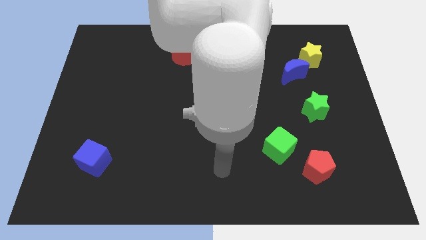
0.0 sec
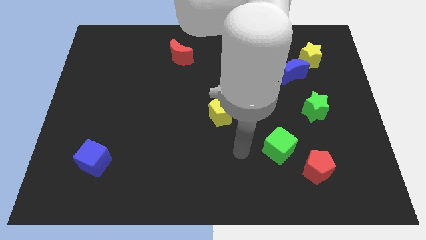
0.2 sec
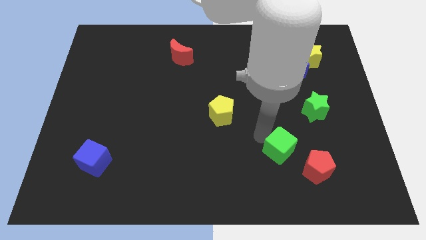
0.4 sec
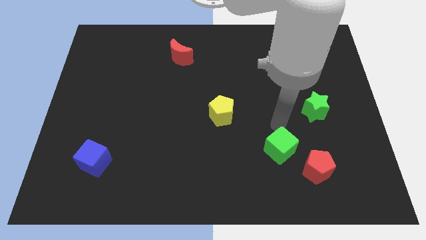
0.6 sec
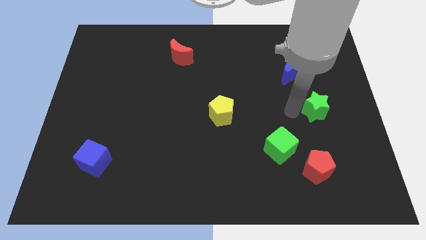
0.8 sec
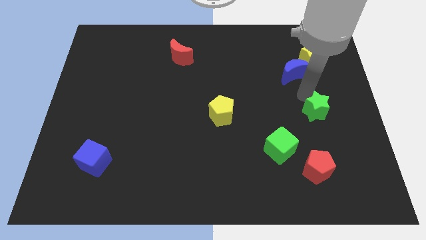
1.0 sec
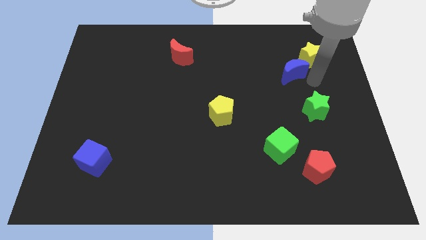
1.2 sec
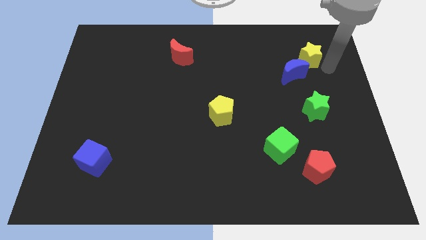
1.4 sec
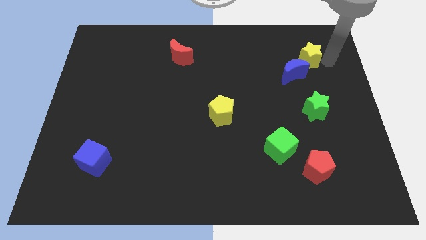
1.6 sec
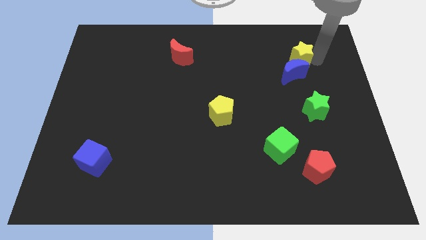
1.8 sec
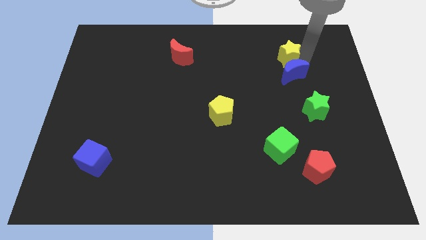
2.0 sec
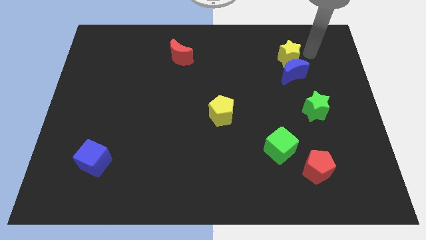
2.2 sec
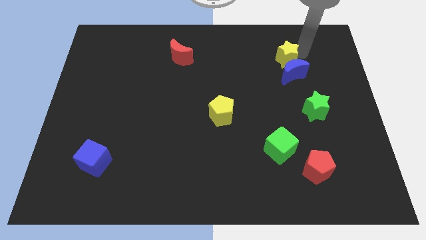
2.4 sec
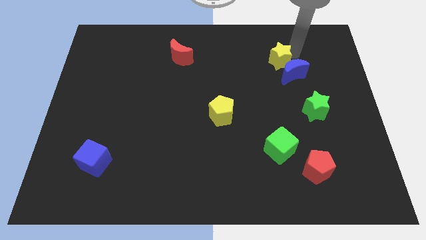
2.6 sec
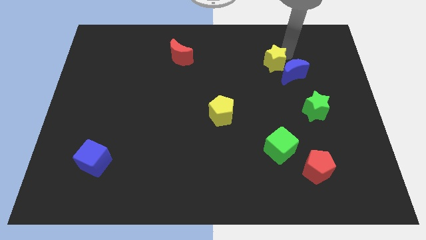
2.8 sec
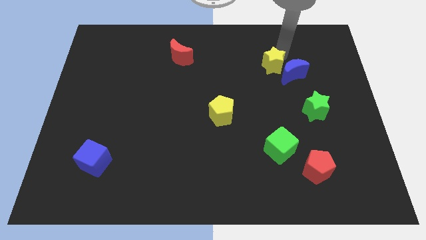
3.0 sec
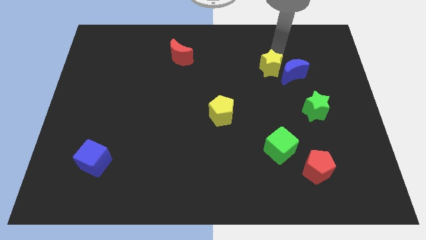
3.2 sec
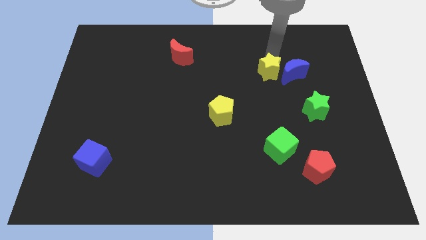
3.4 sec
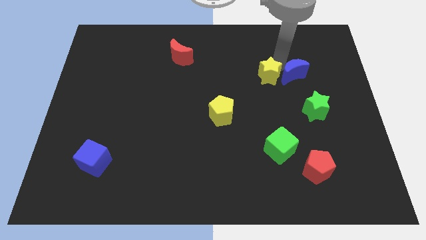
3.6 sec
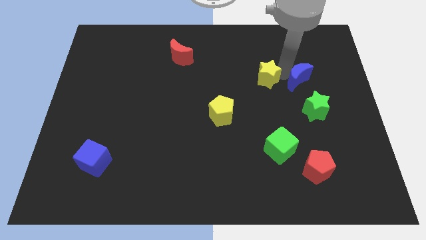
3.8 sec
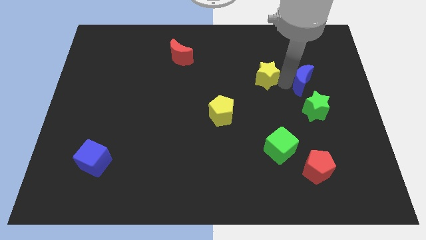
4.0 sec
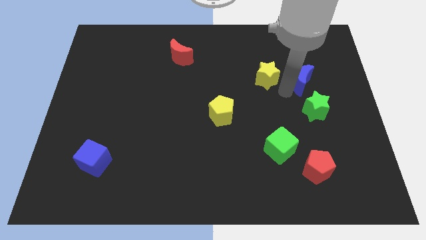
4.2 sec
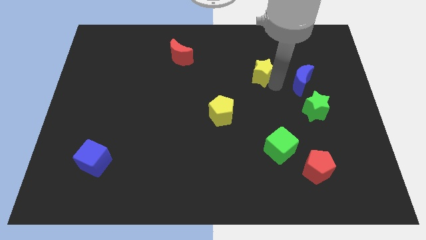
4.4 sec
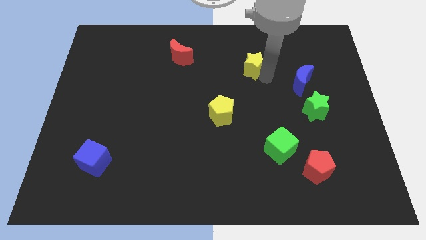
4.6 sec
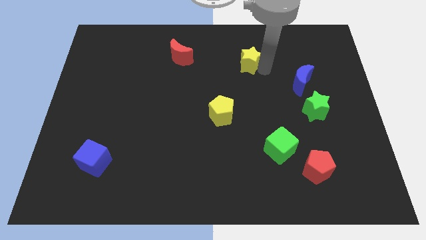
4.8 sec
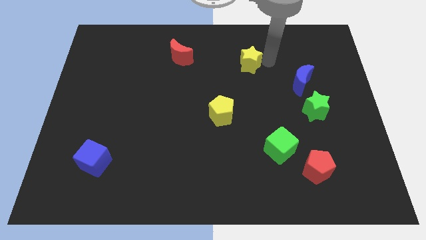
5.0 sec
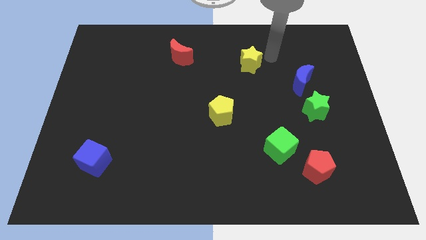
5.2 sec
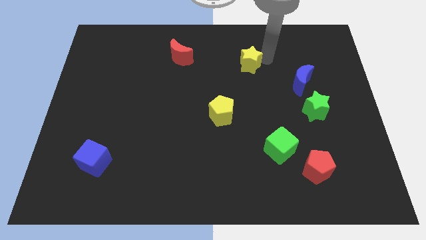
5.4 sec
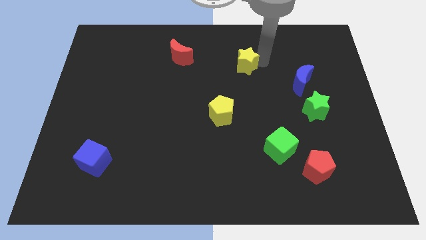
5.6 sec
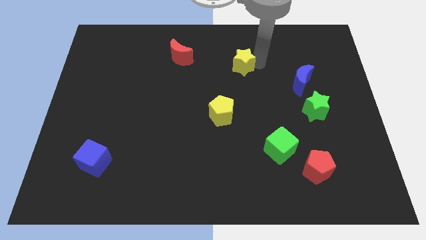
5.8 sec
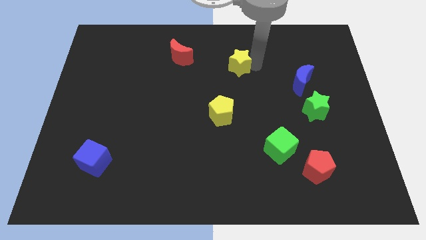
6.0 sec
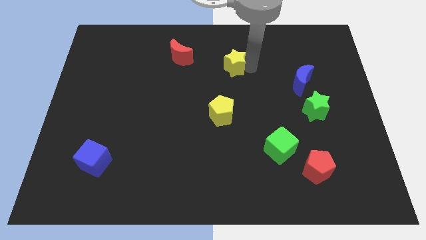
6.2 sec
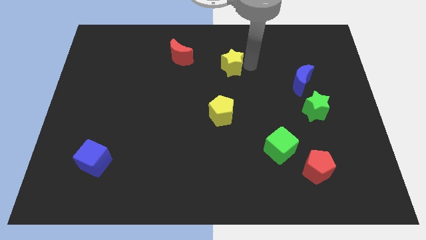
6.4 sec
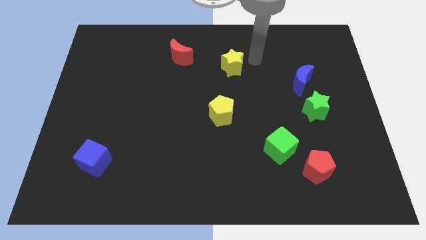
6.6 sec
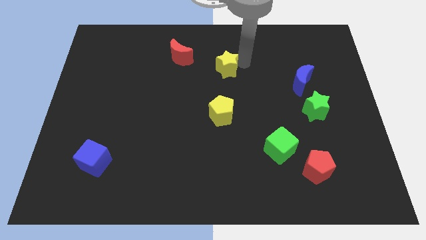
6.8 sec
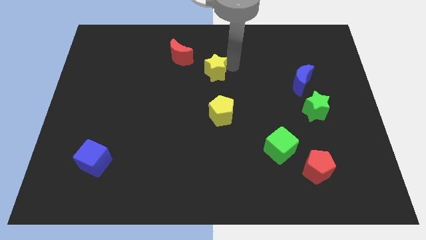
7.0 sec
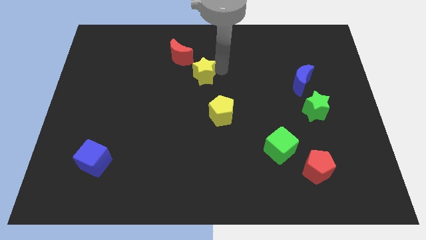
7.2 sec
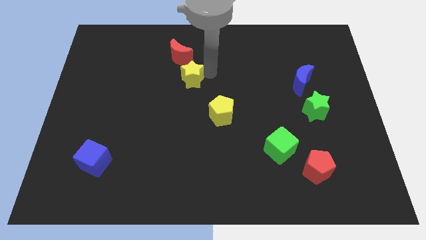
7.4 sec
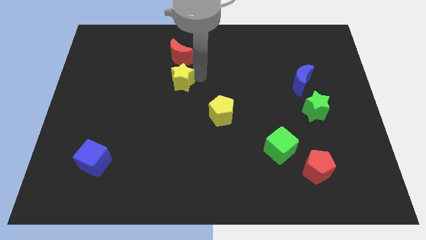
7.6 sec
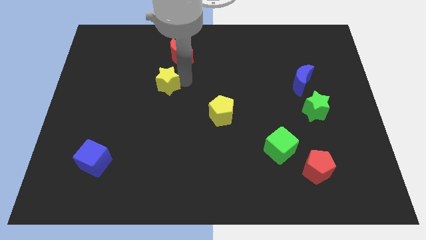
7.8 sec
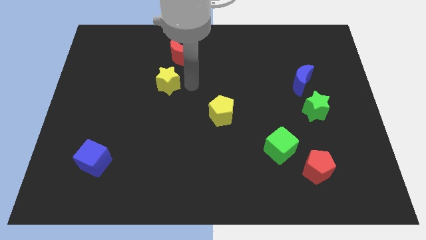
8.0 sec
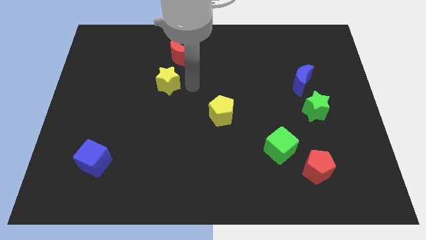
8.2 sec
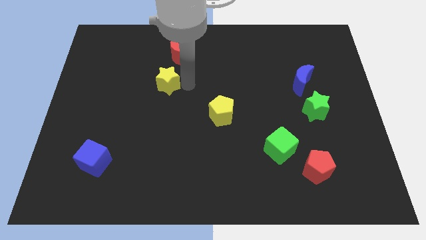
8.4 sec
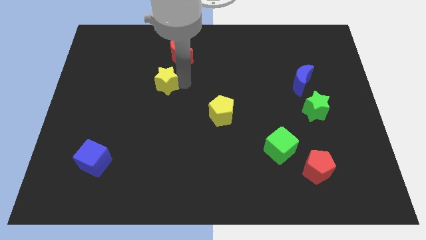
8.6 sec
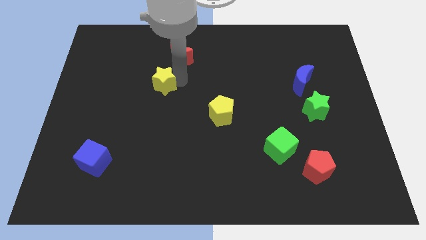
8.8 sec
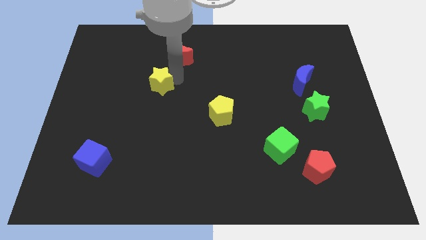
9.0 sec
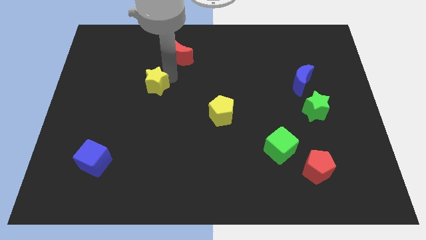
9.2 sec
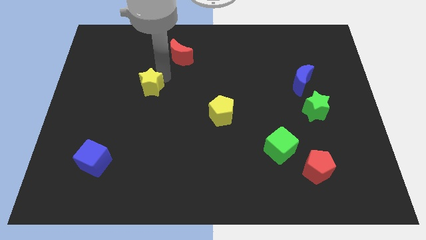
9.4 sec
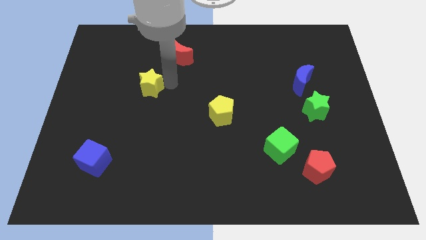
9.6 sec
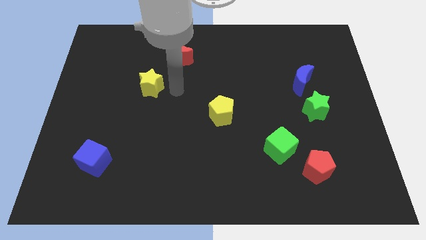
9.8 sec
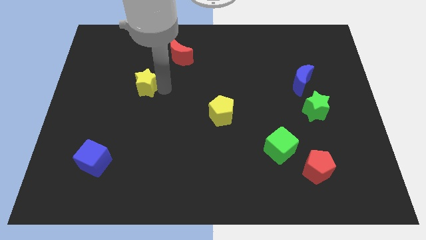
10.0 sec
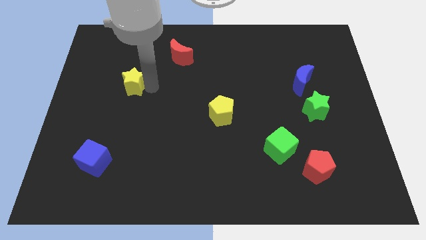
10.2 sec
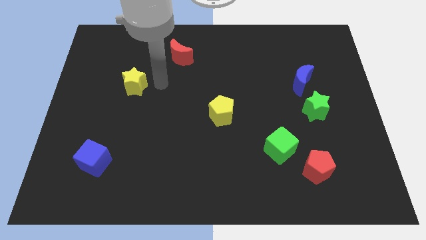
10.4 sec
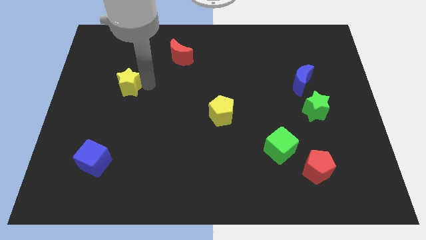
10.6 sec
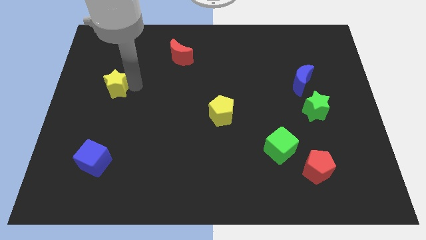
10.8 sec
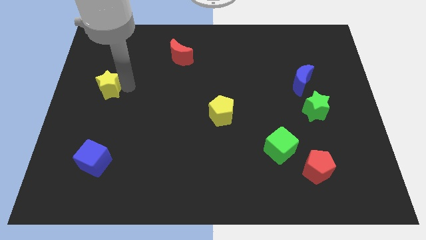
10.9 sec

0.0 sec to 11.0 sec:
put the yellow star to the left side

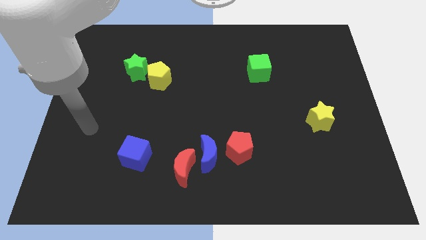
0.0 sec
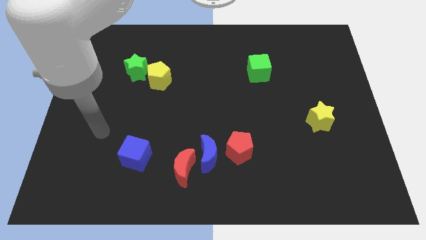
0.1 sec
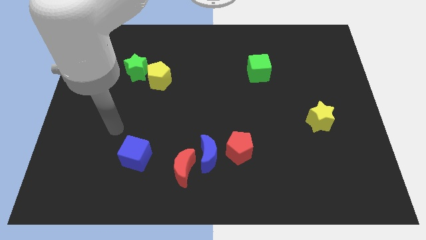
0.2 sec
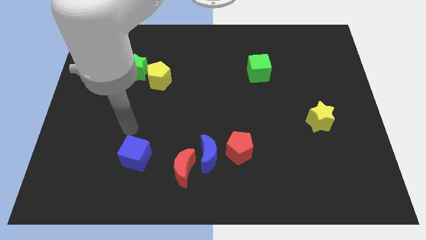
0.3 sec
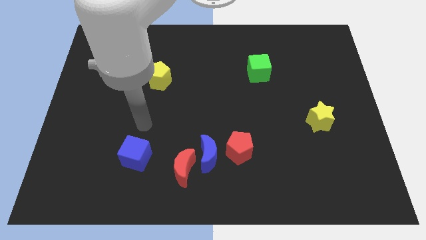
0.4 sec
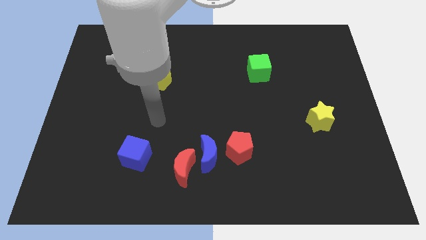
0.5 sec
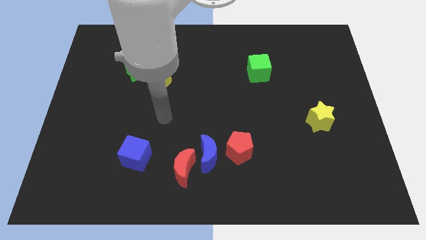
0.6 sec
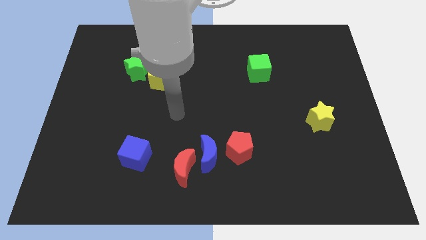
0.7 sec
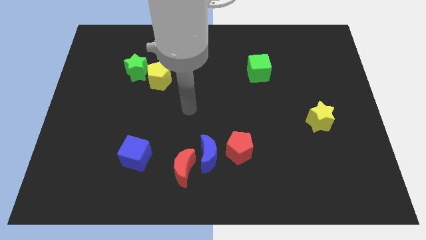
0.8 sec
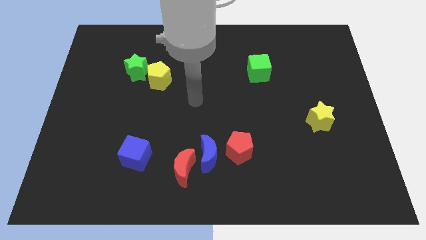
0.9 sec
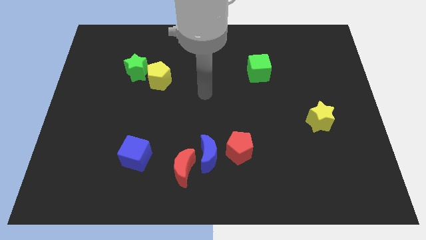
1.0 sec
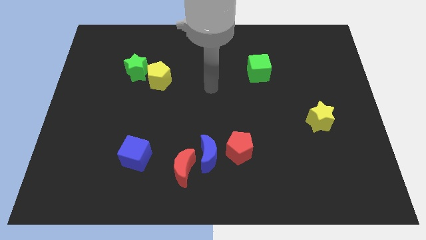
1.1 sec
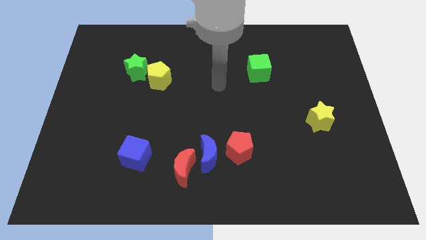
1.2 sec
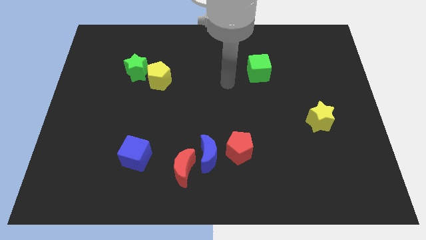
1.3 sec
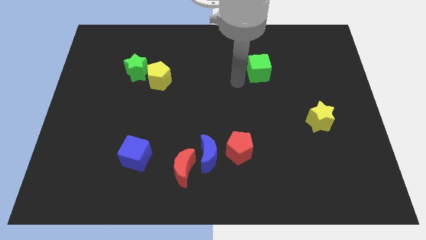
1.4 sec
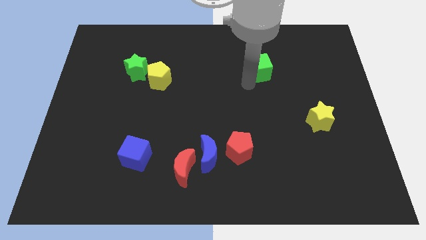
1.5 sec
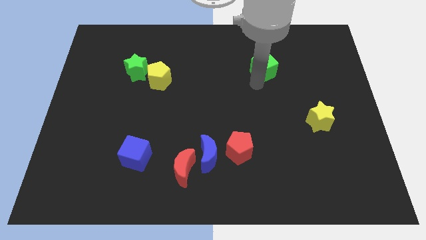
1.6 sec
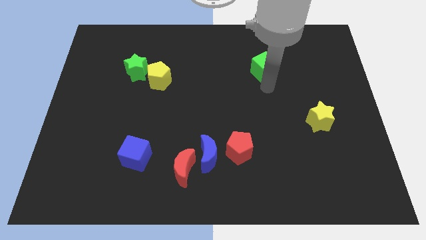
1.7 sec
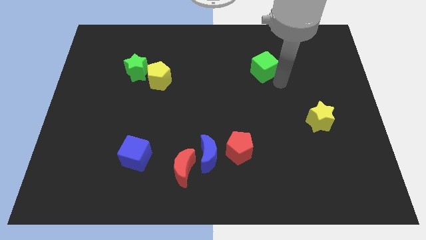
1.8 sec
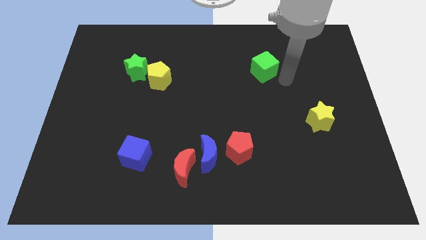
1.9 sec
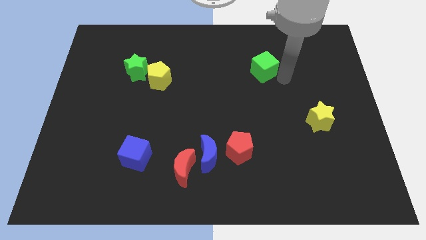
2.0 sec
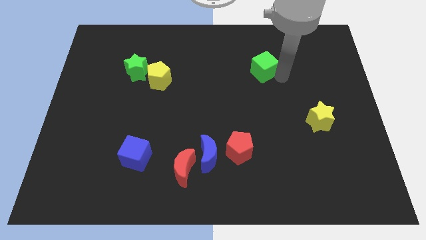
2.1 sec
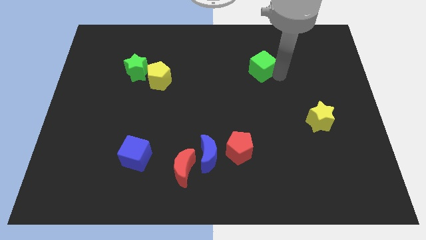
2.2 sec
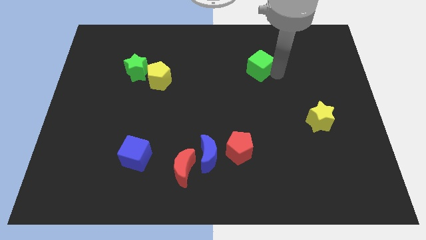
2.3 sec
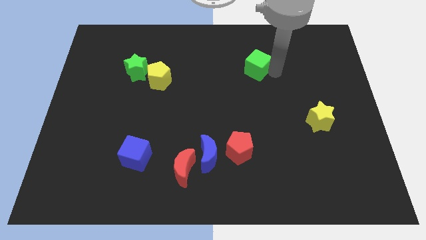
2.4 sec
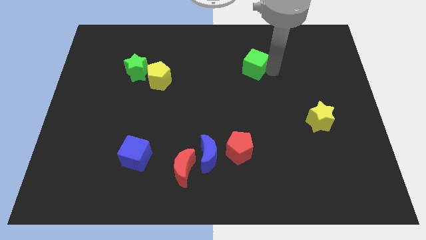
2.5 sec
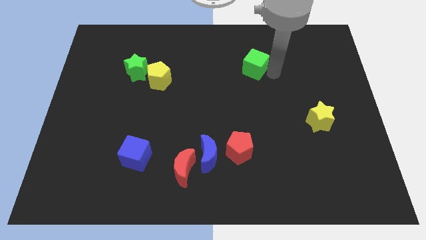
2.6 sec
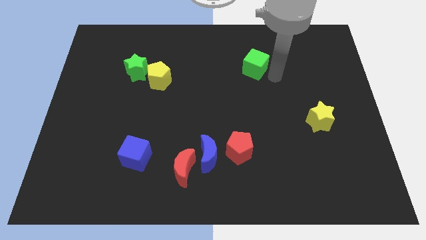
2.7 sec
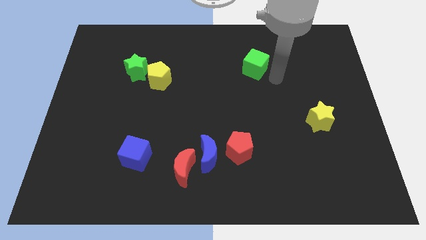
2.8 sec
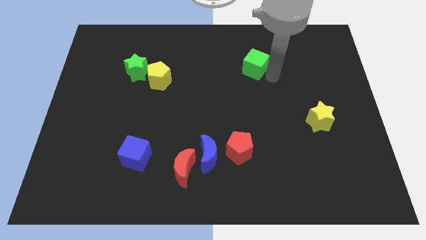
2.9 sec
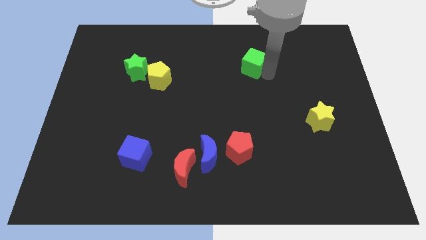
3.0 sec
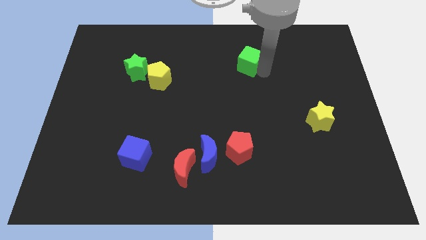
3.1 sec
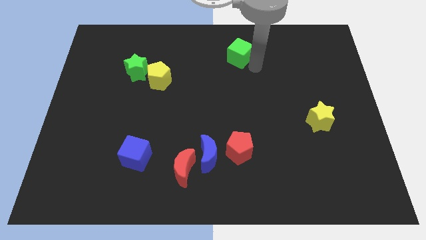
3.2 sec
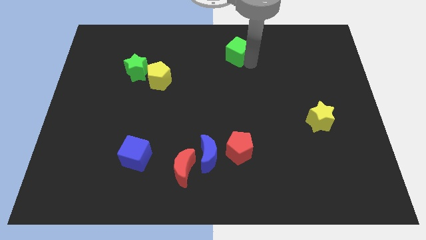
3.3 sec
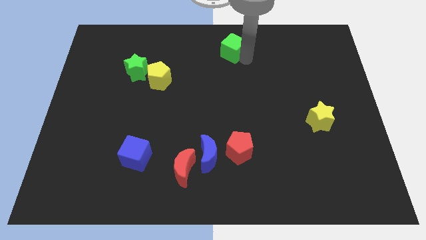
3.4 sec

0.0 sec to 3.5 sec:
push the green cube to the towards your base
